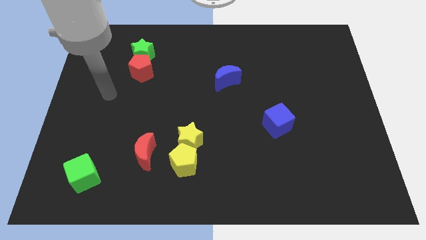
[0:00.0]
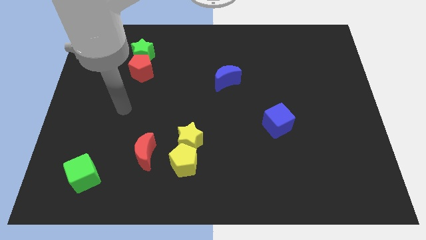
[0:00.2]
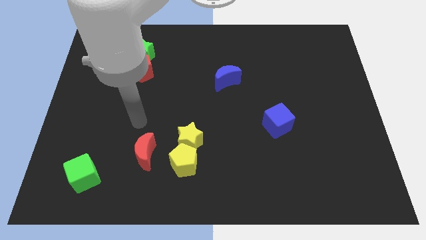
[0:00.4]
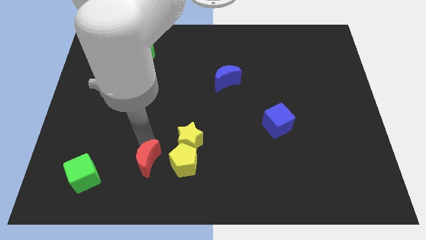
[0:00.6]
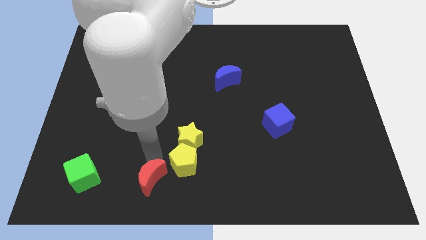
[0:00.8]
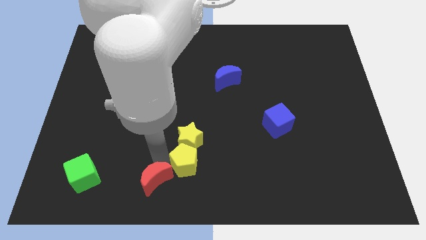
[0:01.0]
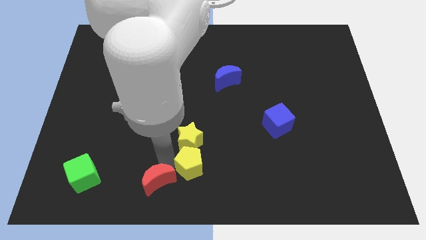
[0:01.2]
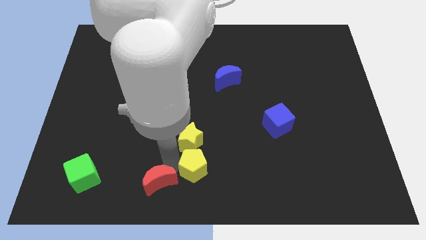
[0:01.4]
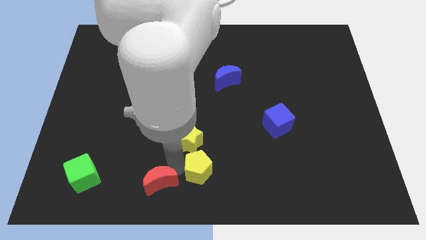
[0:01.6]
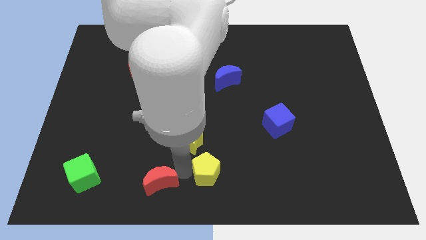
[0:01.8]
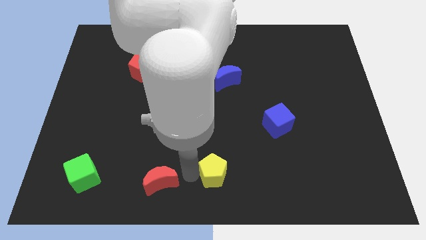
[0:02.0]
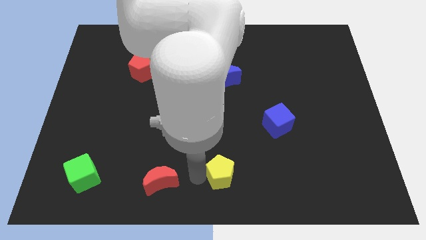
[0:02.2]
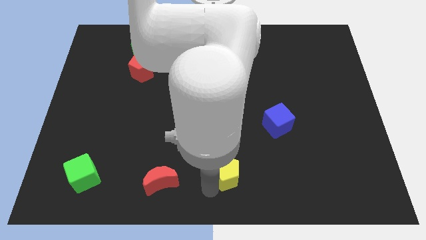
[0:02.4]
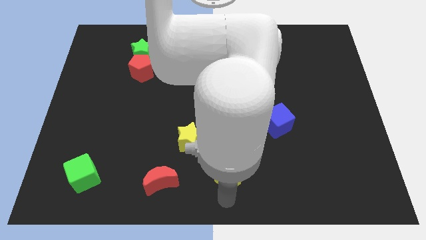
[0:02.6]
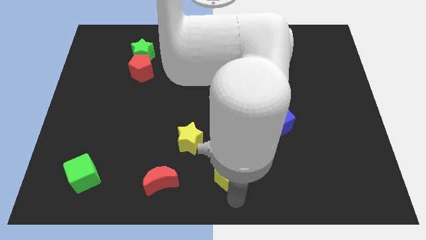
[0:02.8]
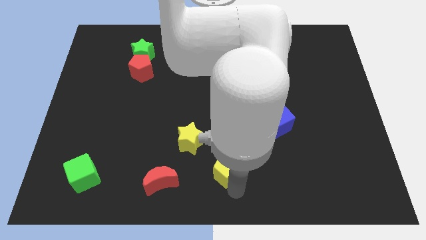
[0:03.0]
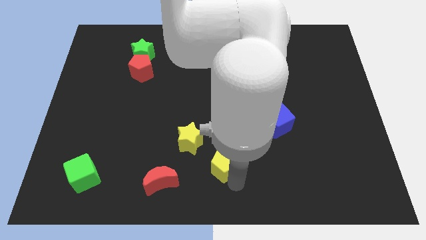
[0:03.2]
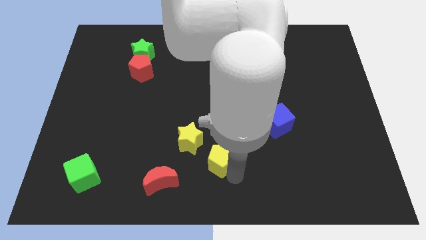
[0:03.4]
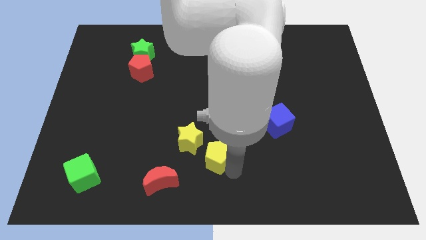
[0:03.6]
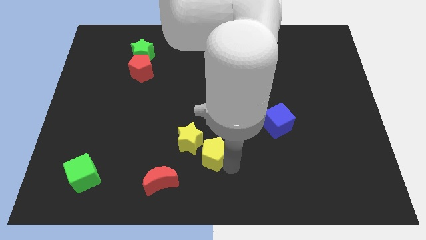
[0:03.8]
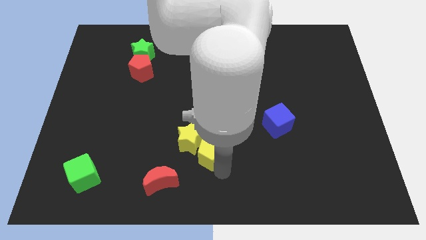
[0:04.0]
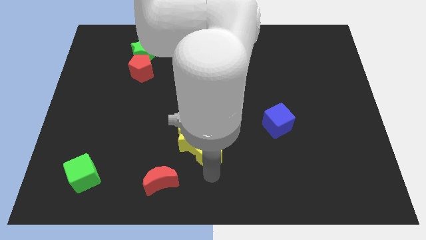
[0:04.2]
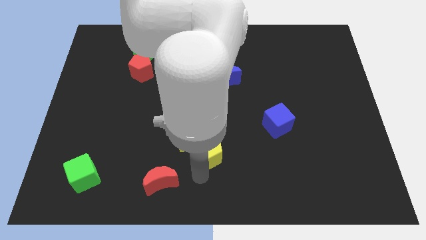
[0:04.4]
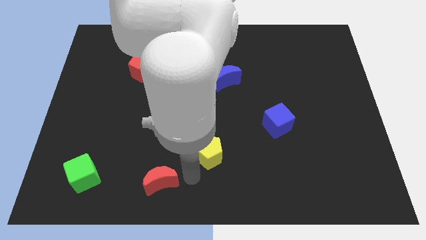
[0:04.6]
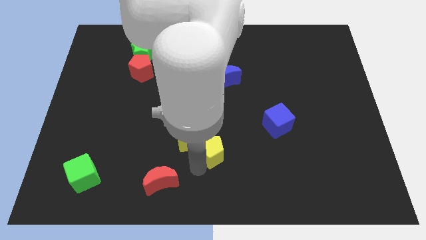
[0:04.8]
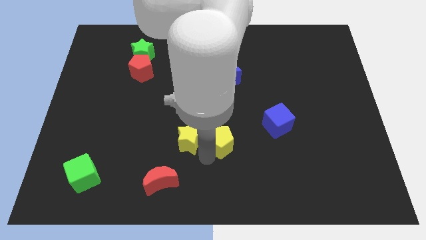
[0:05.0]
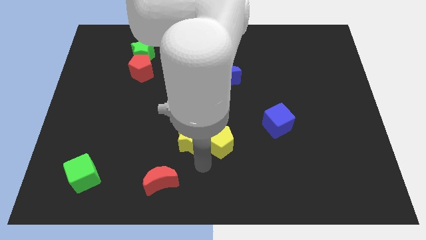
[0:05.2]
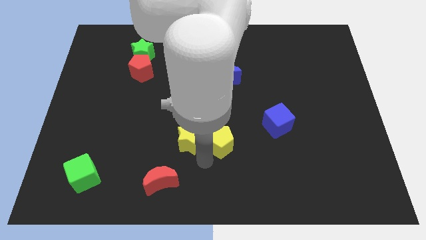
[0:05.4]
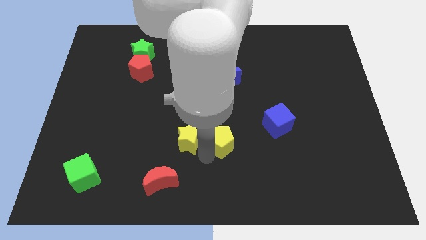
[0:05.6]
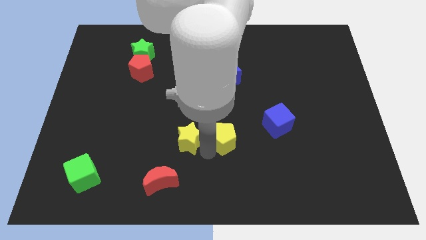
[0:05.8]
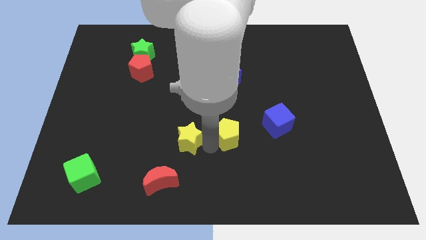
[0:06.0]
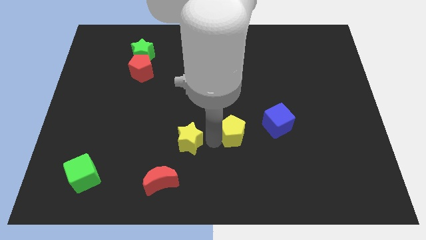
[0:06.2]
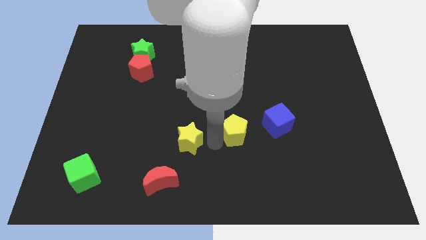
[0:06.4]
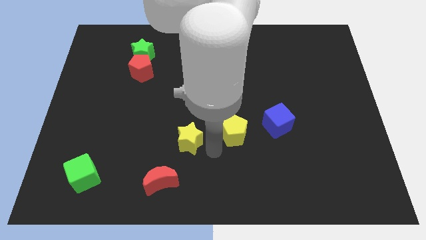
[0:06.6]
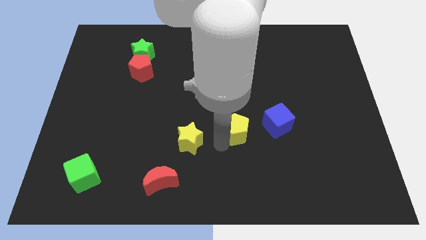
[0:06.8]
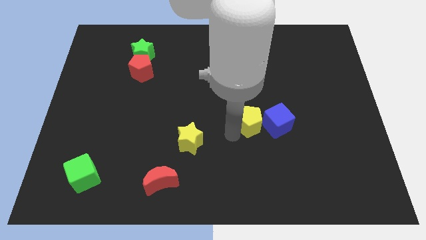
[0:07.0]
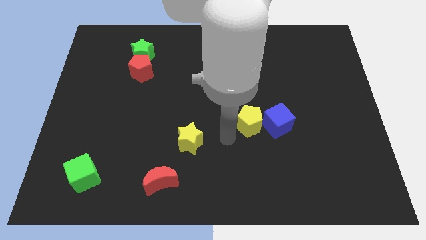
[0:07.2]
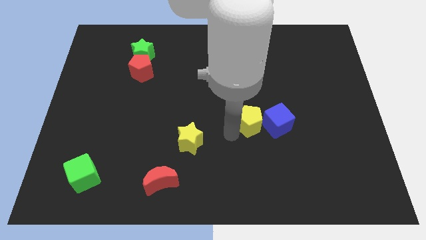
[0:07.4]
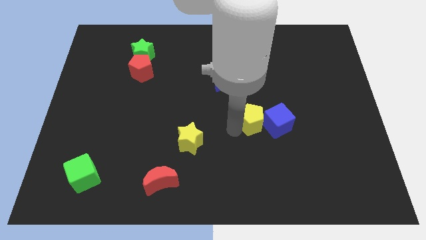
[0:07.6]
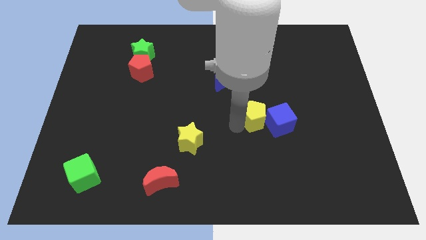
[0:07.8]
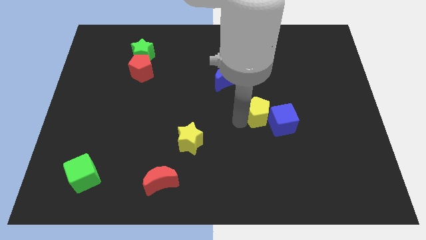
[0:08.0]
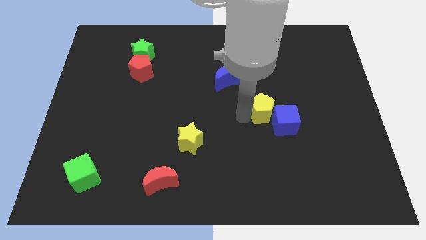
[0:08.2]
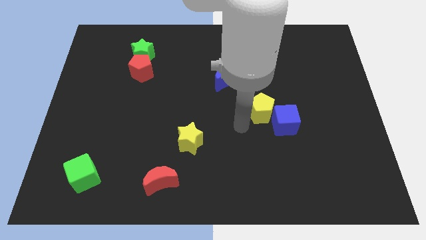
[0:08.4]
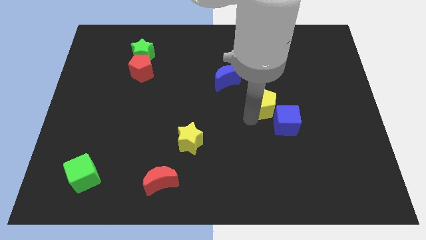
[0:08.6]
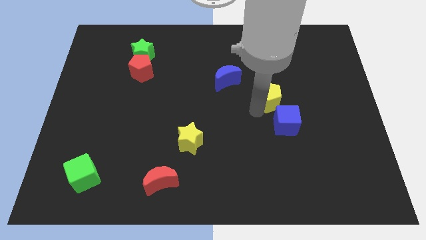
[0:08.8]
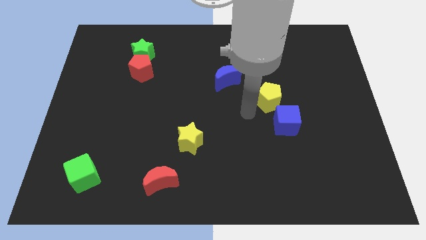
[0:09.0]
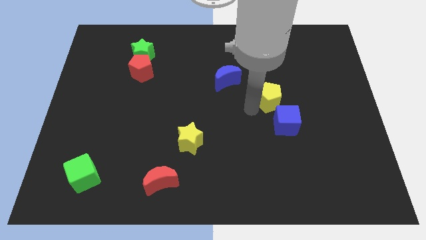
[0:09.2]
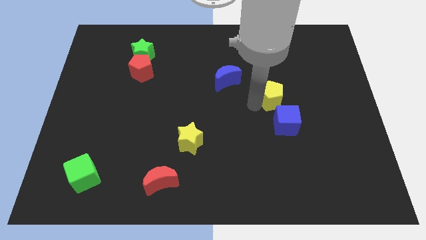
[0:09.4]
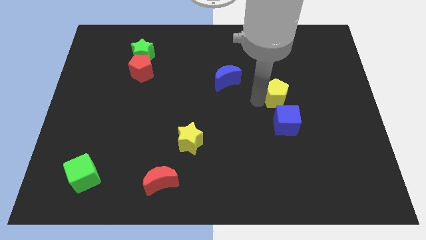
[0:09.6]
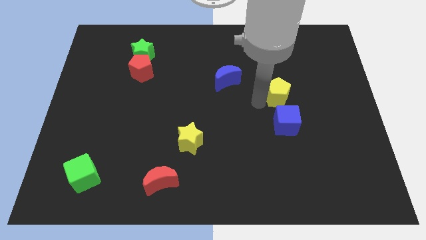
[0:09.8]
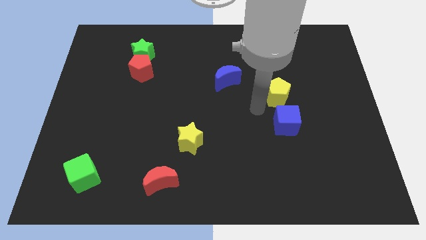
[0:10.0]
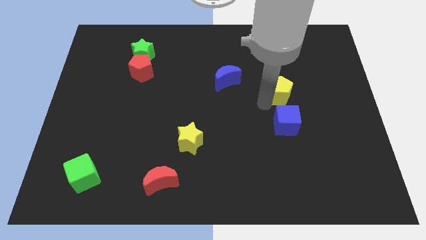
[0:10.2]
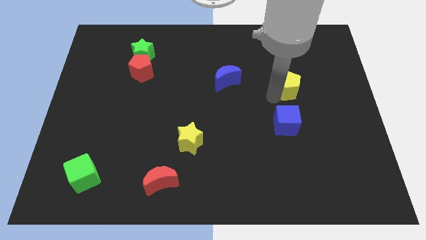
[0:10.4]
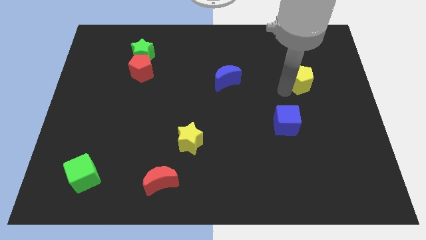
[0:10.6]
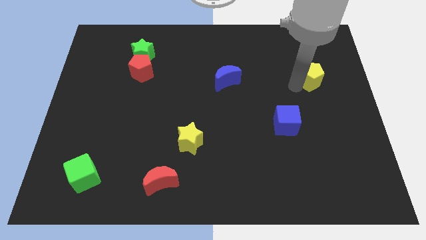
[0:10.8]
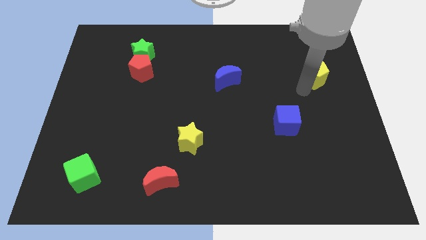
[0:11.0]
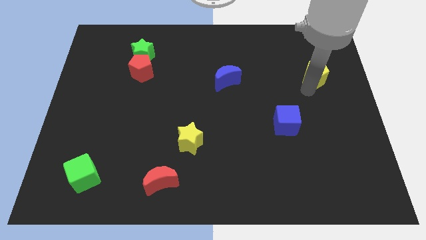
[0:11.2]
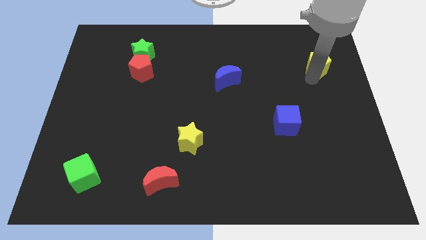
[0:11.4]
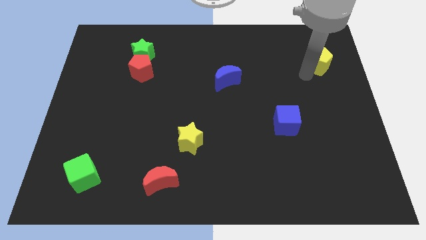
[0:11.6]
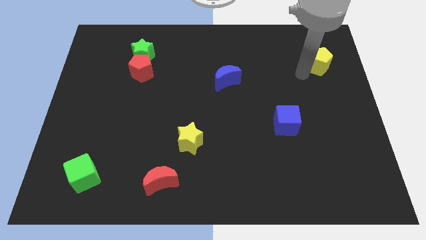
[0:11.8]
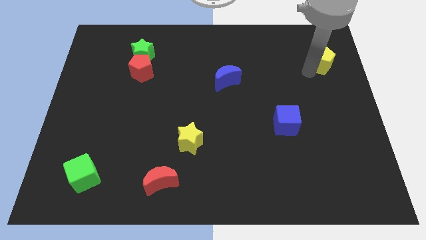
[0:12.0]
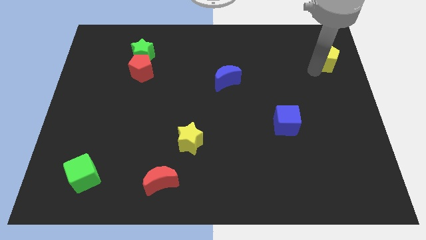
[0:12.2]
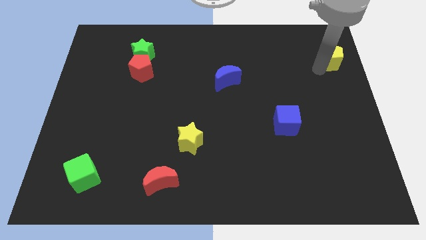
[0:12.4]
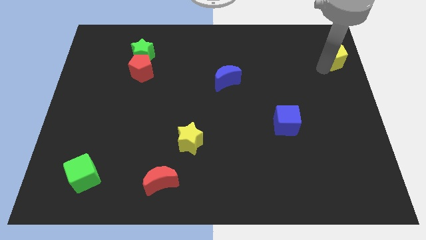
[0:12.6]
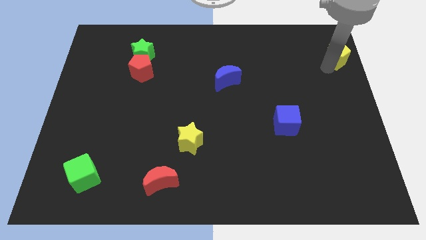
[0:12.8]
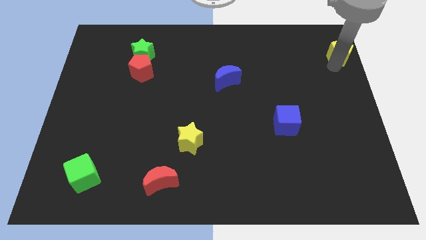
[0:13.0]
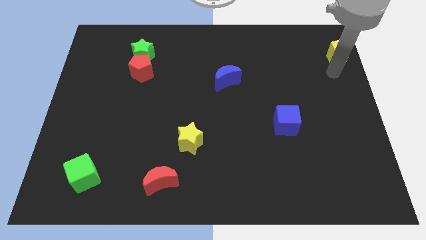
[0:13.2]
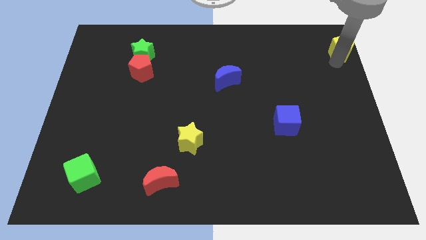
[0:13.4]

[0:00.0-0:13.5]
put the yellow pentagon to the top right
